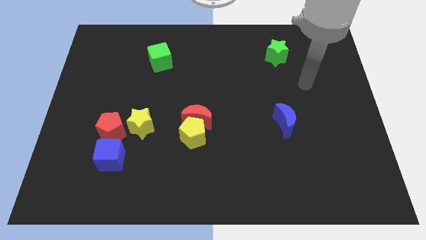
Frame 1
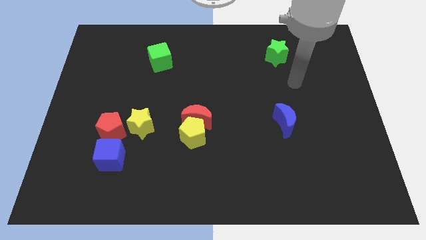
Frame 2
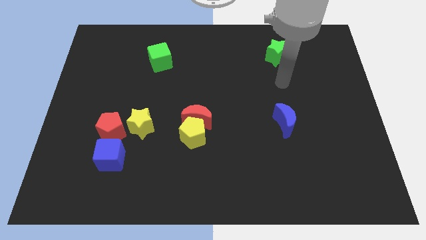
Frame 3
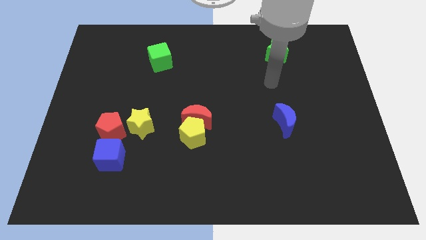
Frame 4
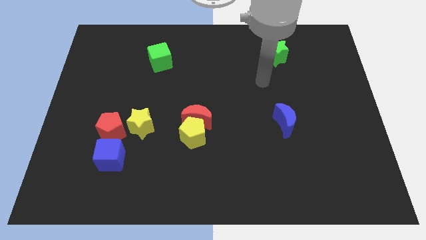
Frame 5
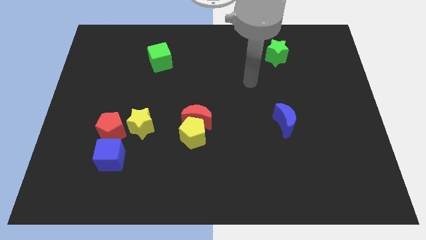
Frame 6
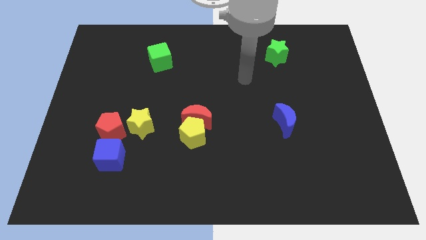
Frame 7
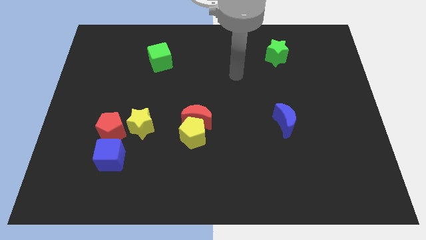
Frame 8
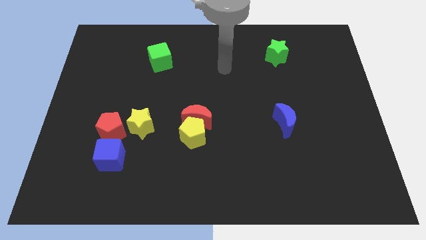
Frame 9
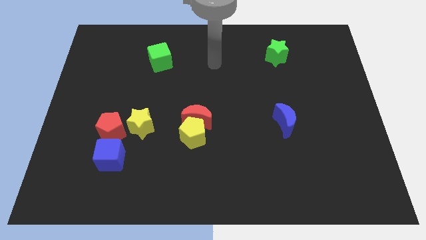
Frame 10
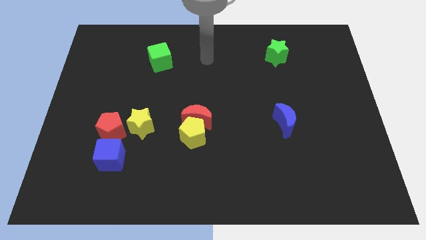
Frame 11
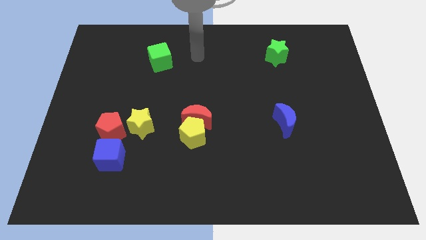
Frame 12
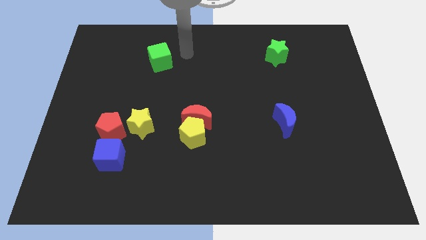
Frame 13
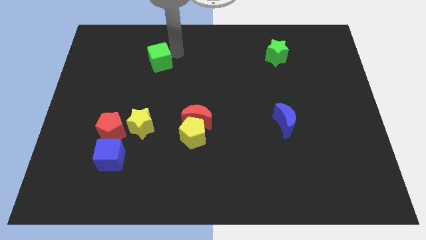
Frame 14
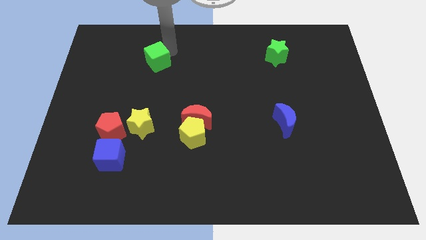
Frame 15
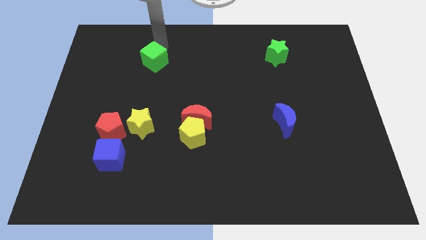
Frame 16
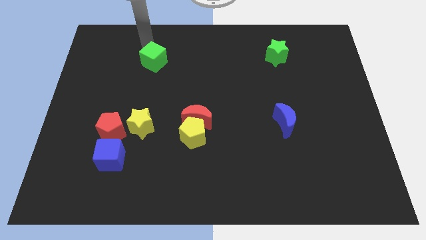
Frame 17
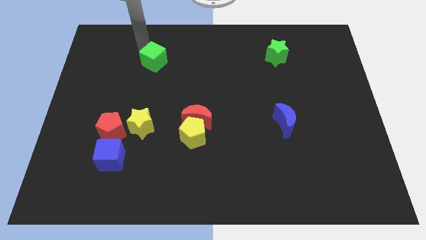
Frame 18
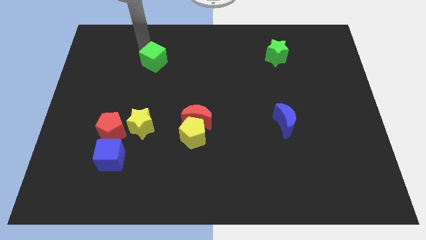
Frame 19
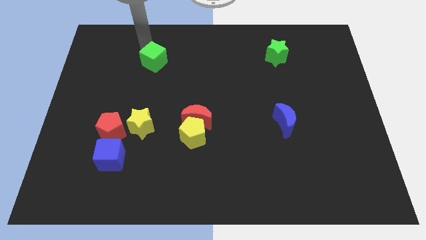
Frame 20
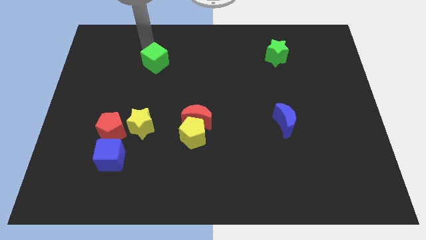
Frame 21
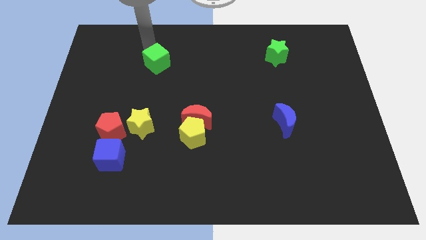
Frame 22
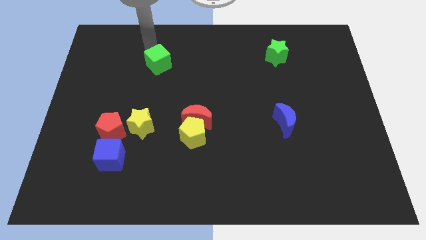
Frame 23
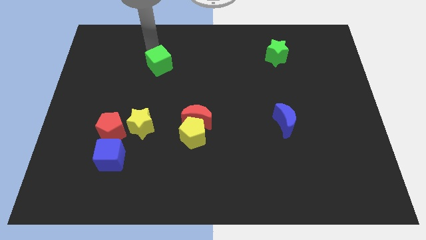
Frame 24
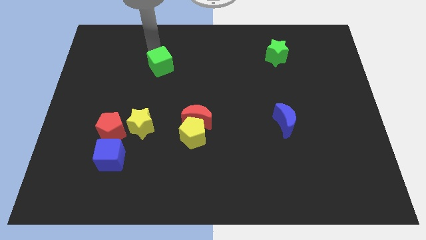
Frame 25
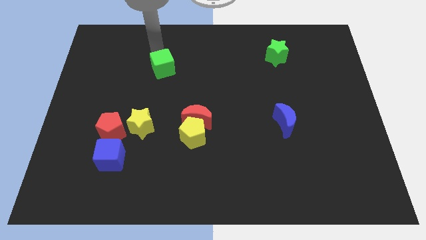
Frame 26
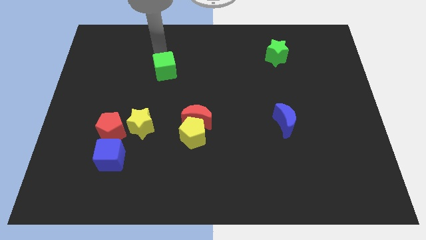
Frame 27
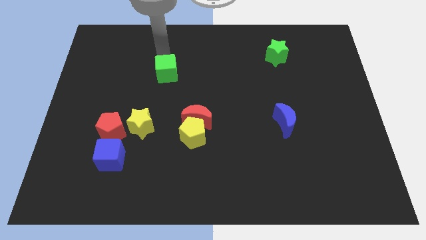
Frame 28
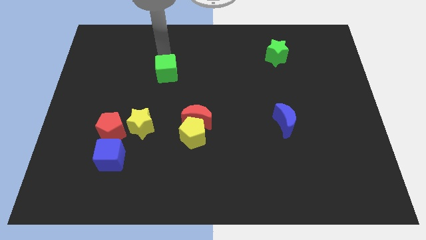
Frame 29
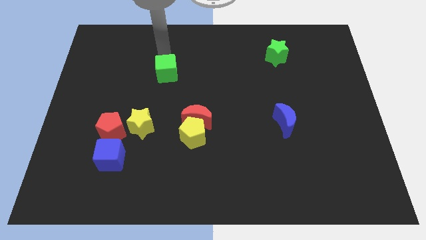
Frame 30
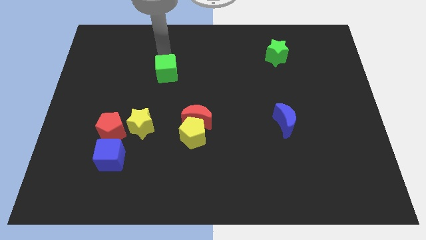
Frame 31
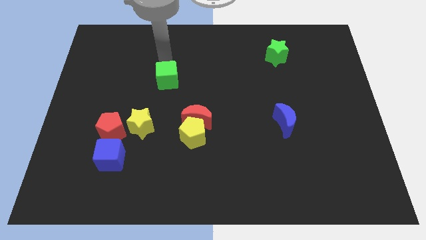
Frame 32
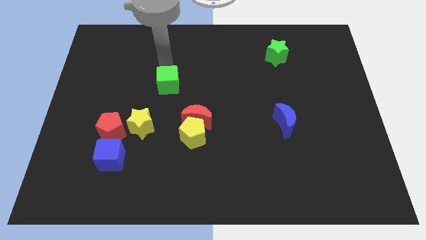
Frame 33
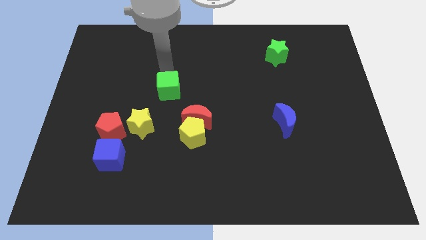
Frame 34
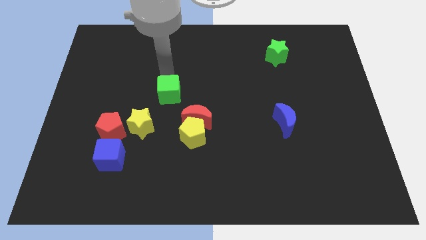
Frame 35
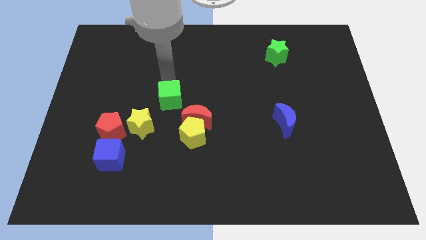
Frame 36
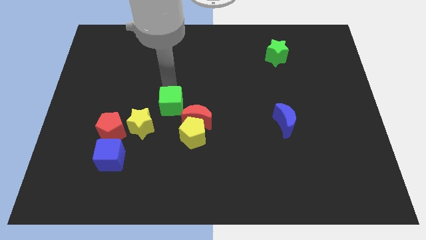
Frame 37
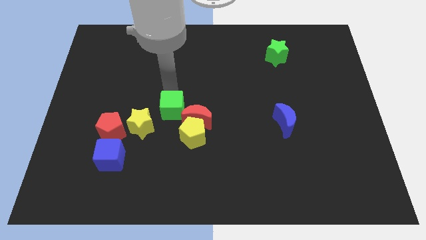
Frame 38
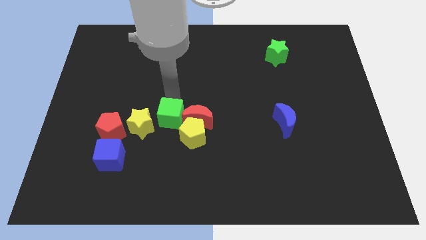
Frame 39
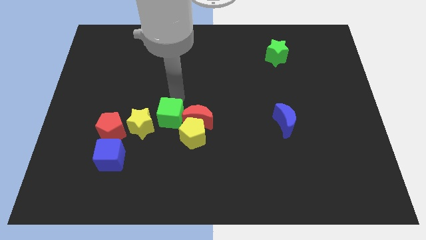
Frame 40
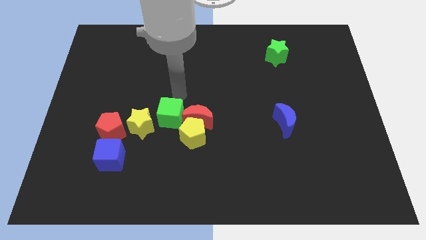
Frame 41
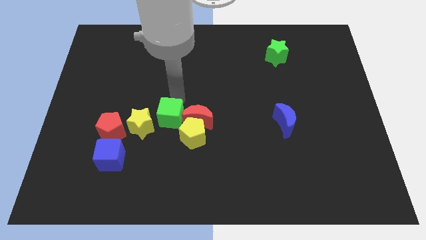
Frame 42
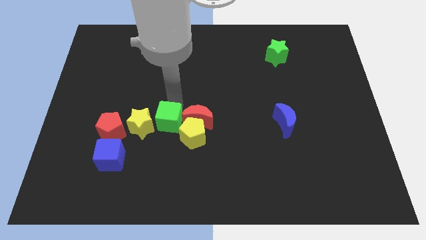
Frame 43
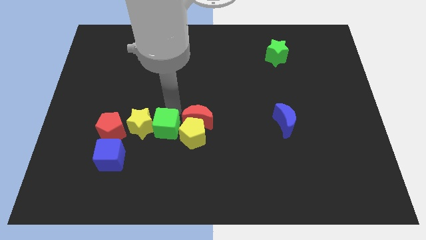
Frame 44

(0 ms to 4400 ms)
move the green cube down

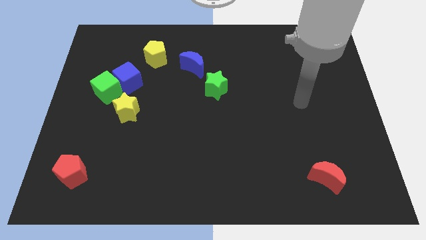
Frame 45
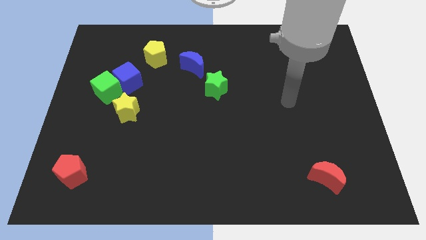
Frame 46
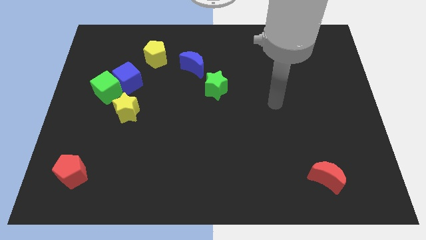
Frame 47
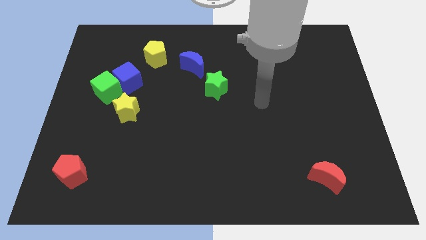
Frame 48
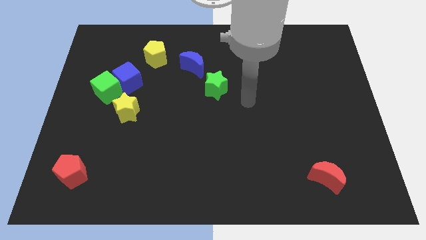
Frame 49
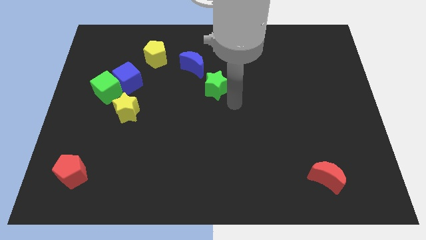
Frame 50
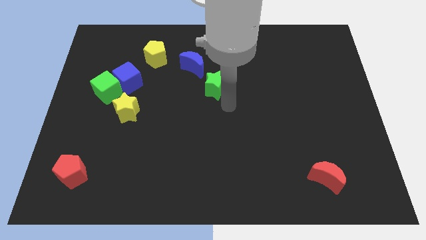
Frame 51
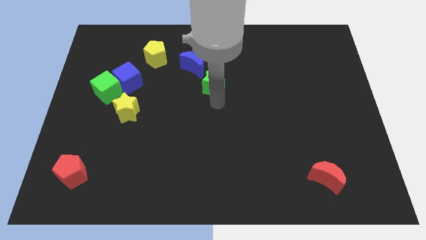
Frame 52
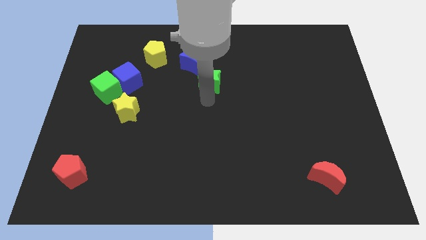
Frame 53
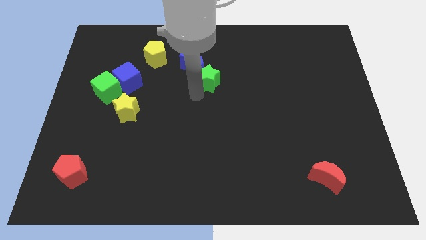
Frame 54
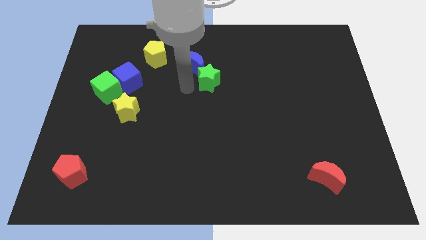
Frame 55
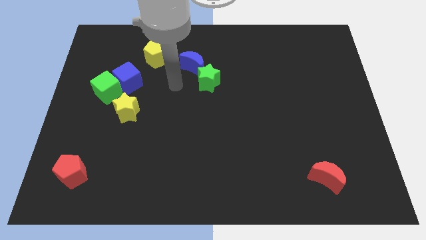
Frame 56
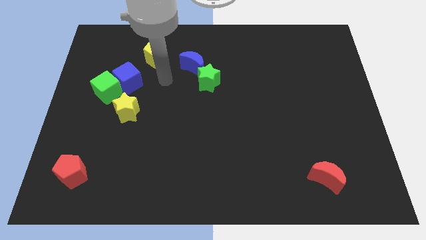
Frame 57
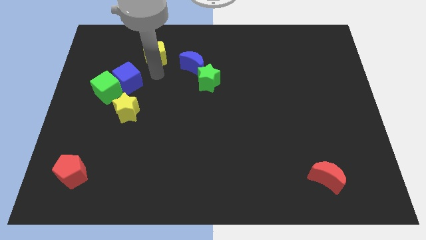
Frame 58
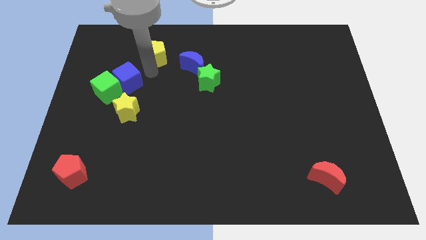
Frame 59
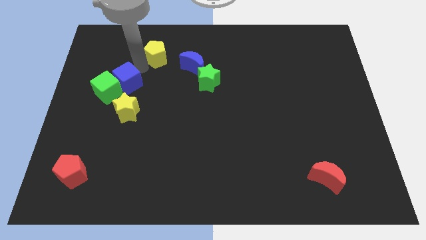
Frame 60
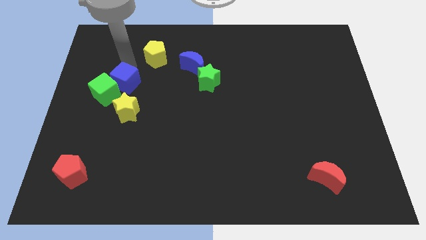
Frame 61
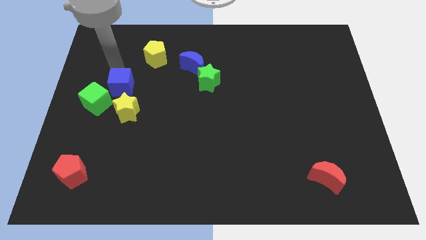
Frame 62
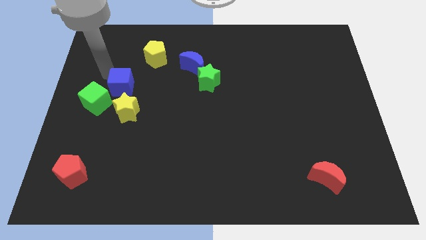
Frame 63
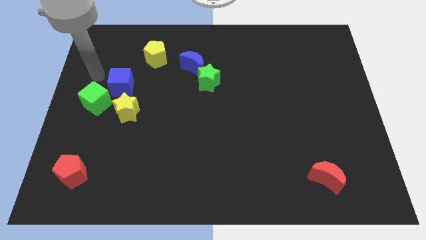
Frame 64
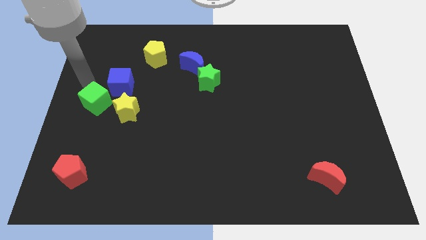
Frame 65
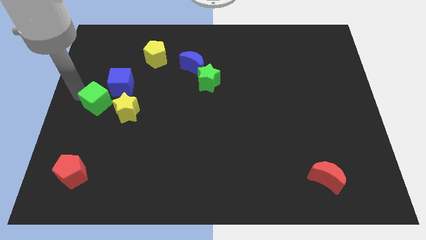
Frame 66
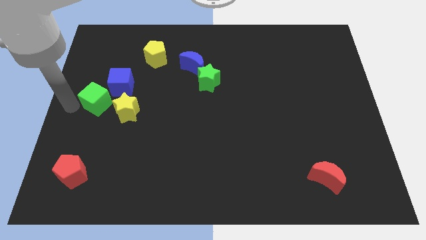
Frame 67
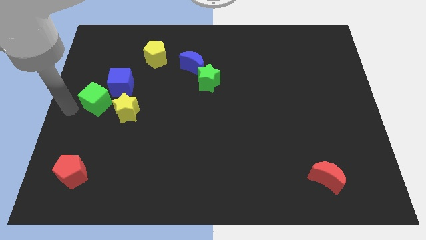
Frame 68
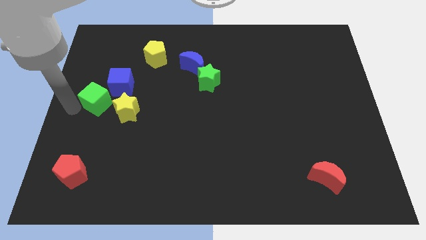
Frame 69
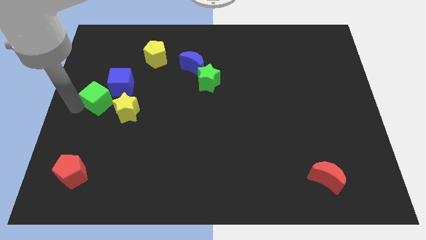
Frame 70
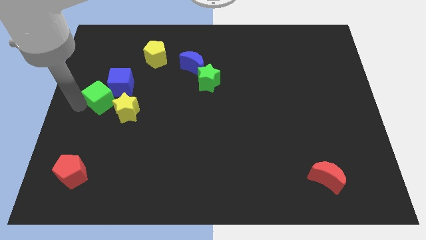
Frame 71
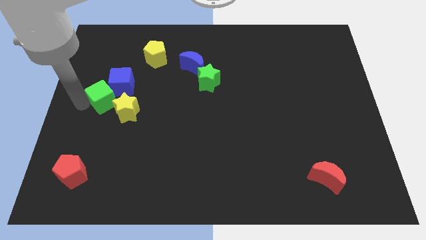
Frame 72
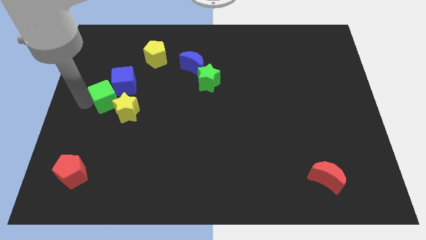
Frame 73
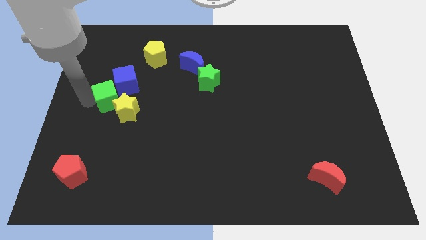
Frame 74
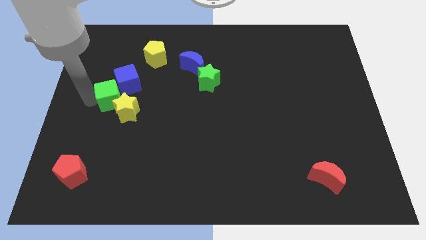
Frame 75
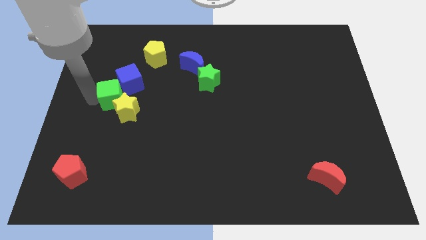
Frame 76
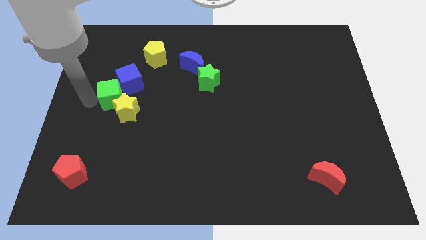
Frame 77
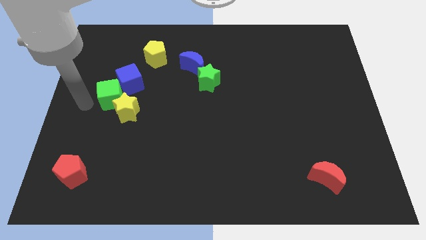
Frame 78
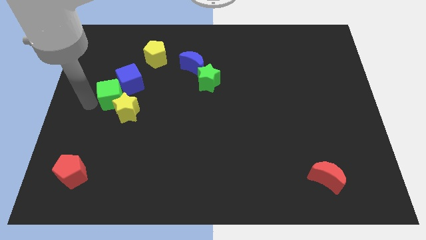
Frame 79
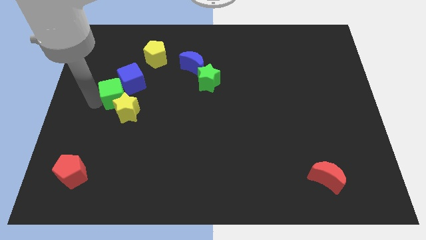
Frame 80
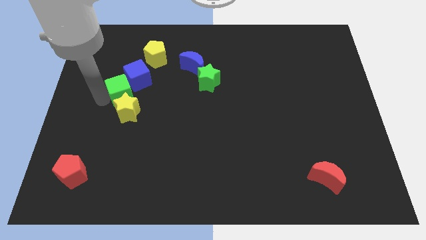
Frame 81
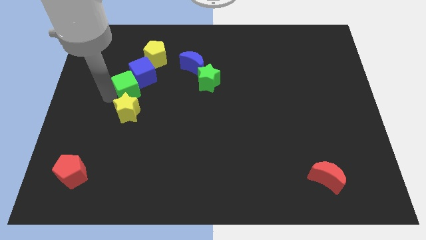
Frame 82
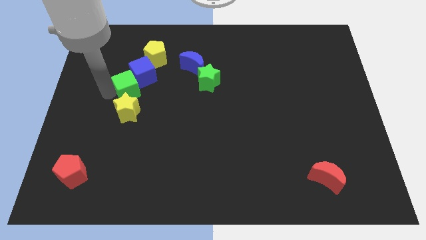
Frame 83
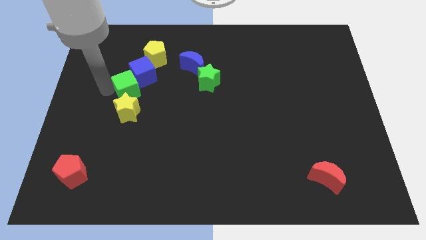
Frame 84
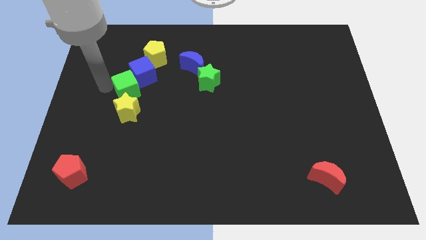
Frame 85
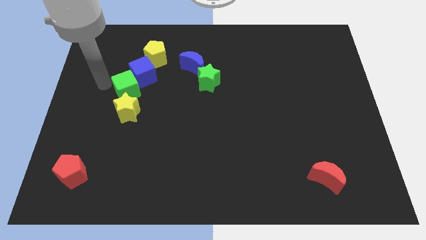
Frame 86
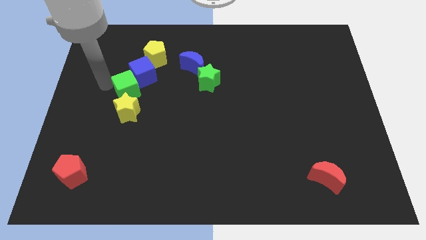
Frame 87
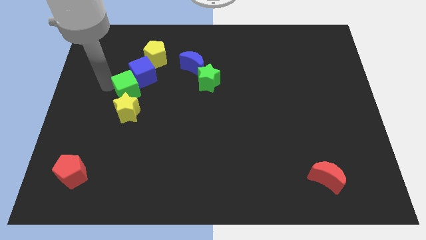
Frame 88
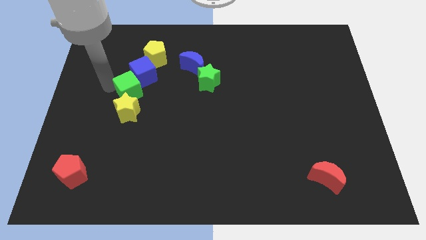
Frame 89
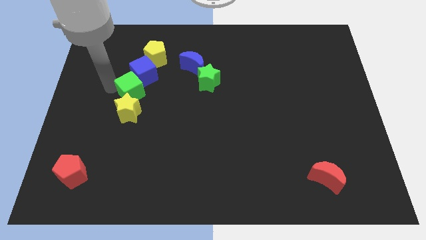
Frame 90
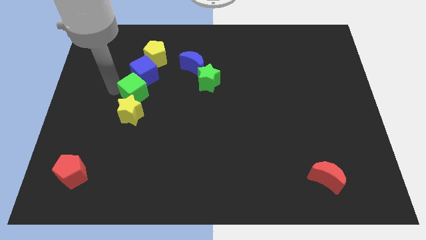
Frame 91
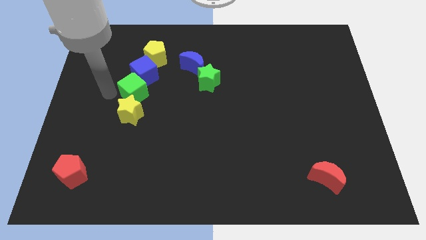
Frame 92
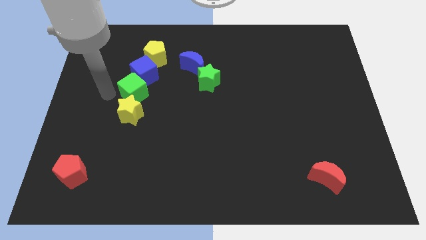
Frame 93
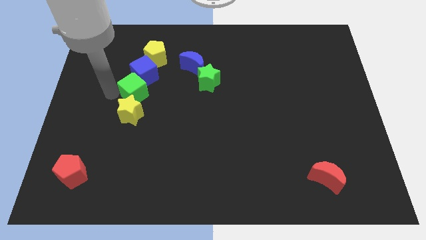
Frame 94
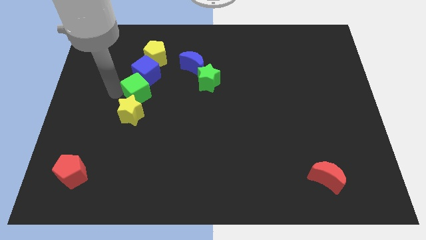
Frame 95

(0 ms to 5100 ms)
move the green cube a little to the right
